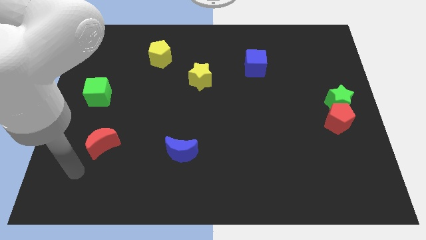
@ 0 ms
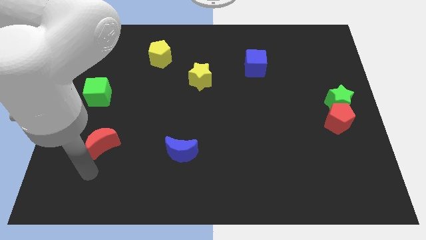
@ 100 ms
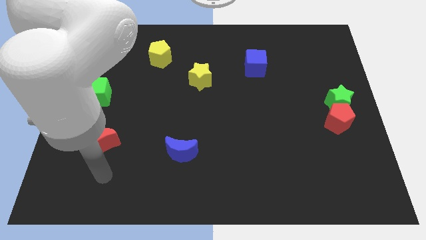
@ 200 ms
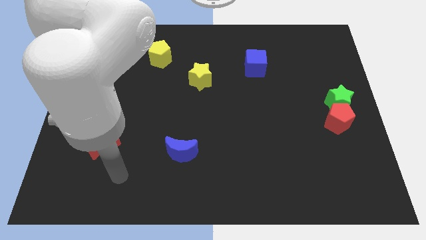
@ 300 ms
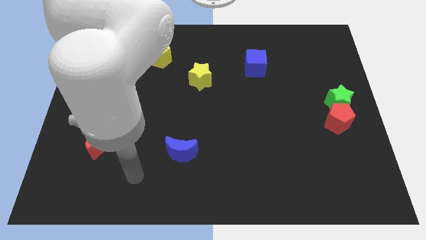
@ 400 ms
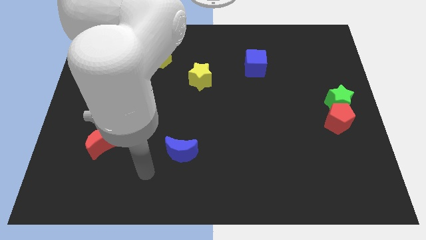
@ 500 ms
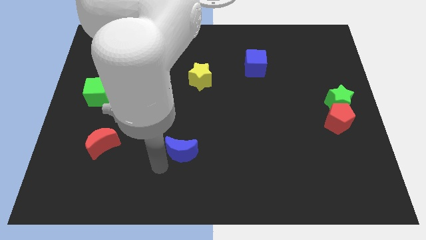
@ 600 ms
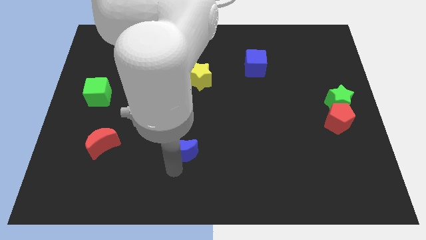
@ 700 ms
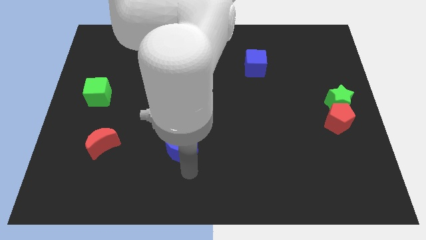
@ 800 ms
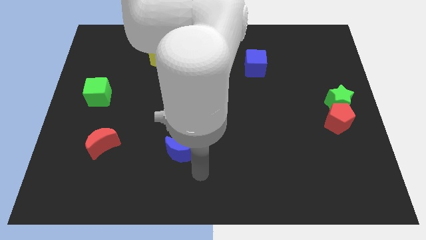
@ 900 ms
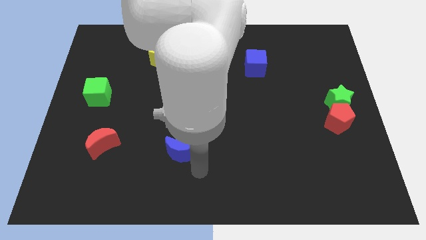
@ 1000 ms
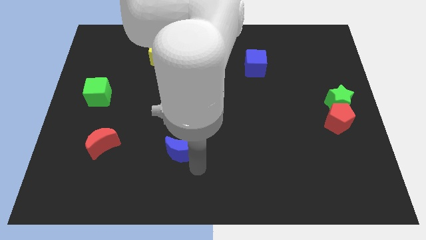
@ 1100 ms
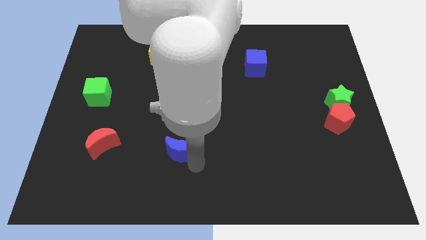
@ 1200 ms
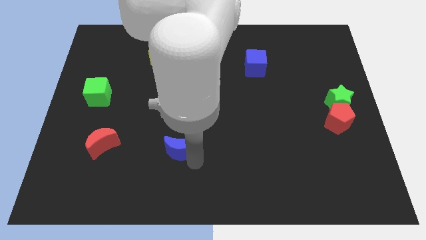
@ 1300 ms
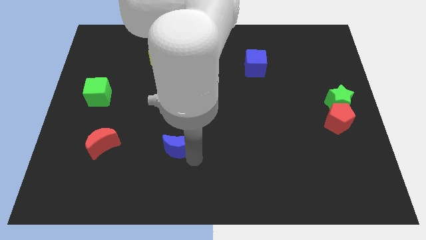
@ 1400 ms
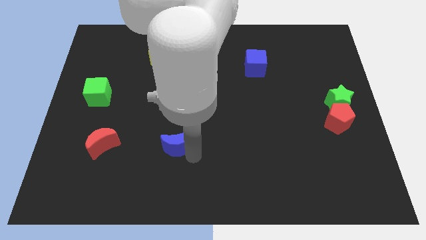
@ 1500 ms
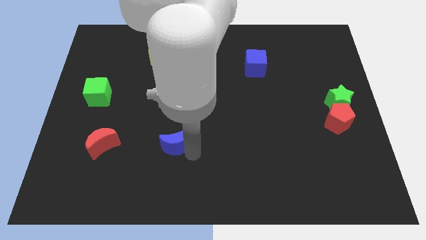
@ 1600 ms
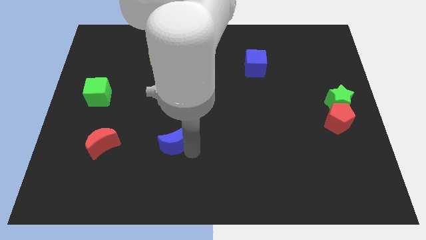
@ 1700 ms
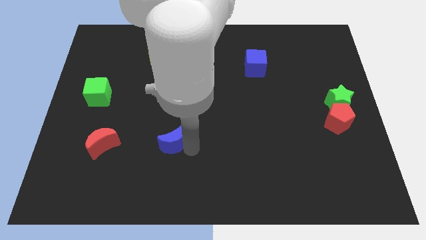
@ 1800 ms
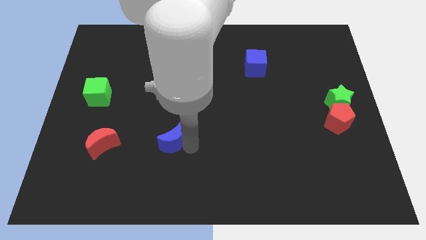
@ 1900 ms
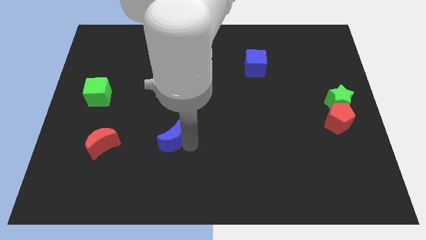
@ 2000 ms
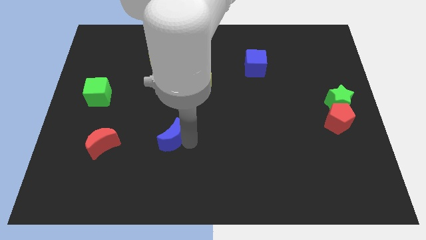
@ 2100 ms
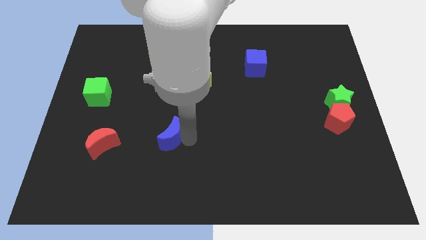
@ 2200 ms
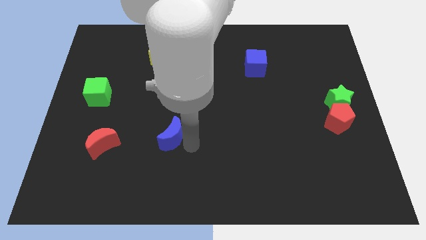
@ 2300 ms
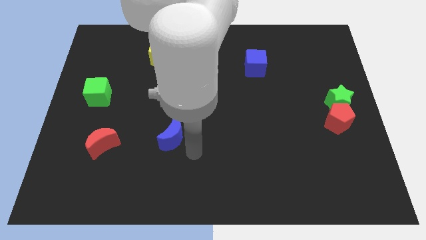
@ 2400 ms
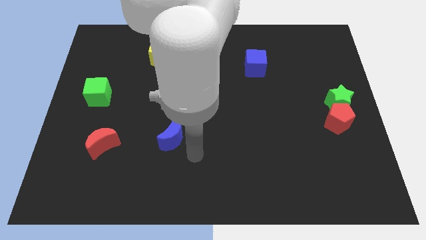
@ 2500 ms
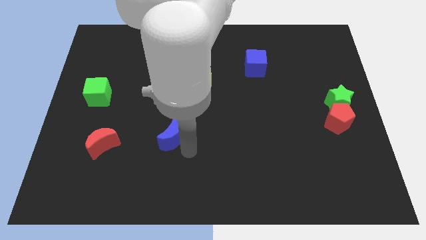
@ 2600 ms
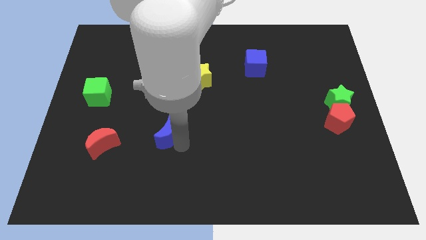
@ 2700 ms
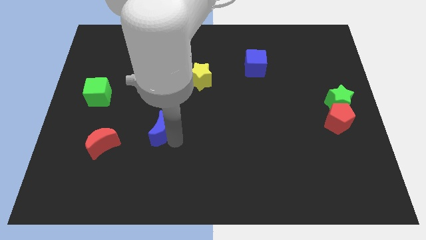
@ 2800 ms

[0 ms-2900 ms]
push the blue moon slightly up and to the left diagonally

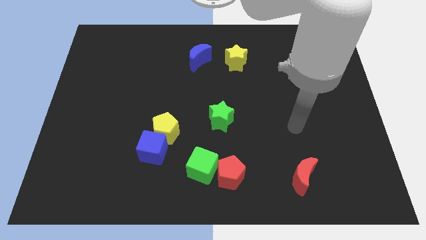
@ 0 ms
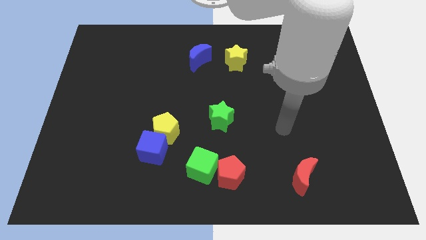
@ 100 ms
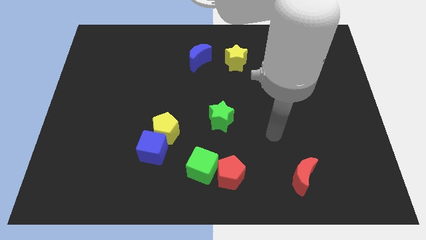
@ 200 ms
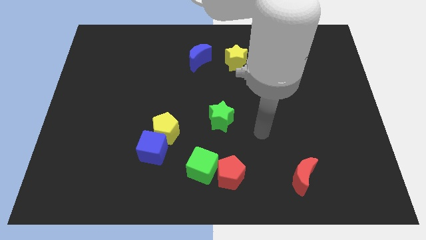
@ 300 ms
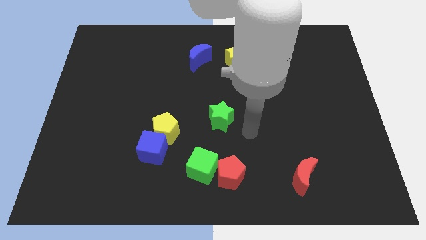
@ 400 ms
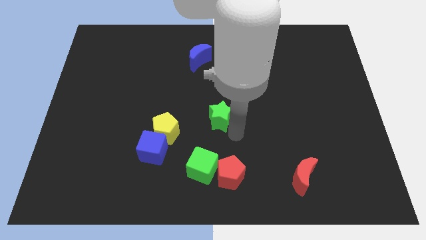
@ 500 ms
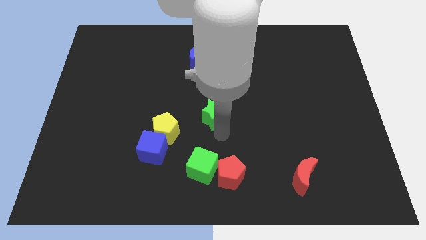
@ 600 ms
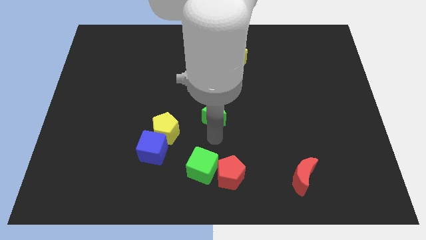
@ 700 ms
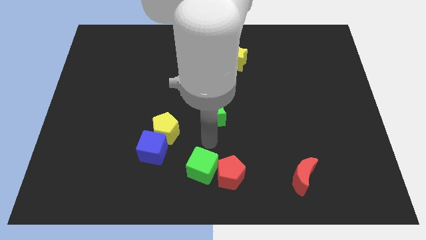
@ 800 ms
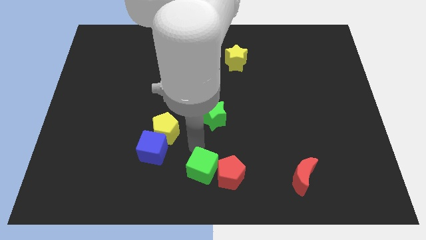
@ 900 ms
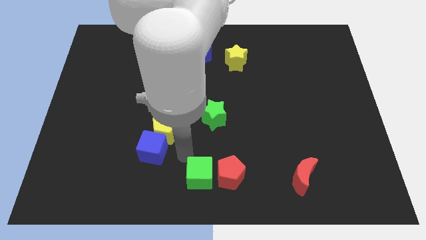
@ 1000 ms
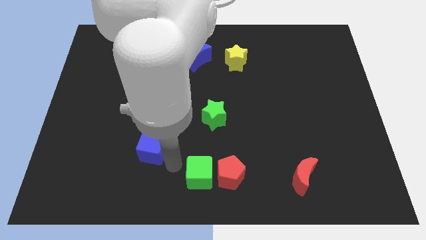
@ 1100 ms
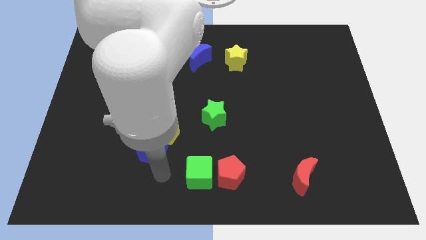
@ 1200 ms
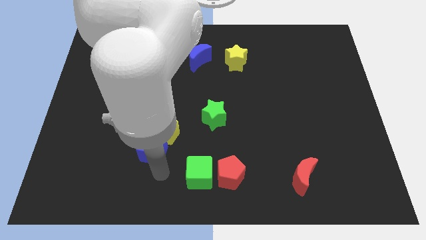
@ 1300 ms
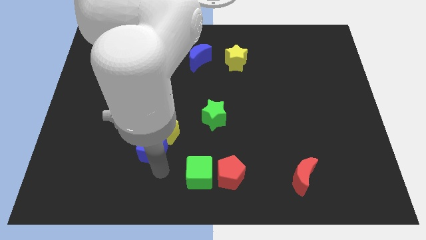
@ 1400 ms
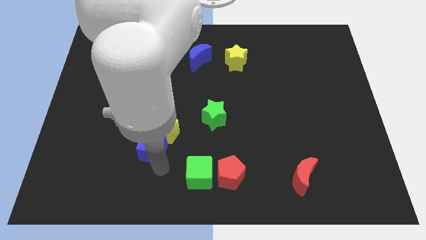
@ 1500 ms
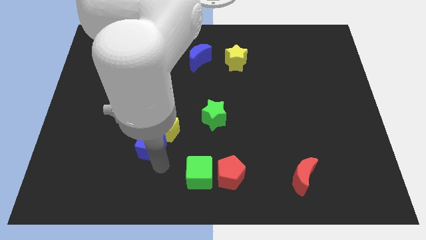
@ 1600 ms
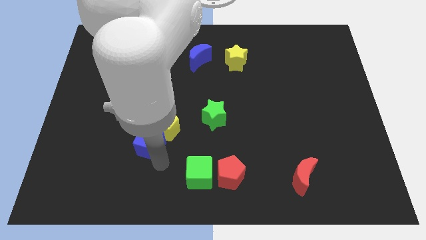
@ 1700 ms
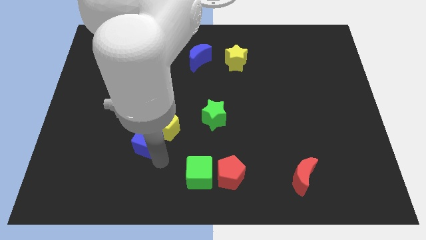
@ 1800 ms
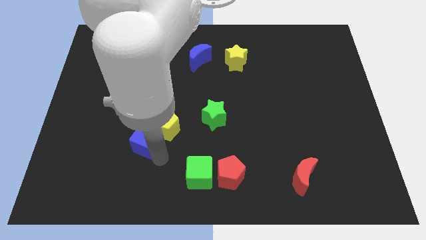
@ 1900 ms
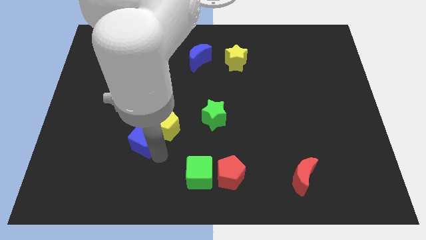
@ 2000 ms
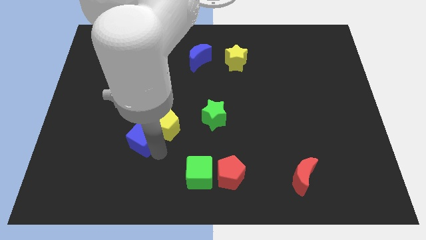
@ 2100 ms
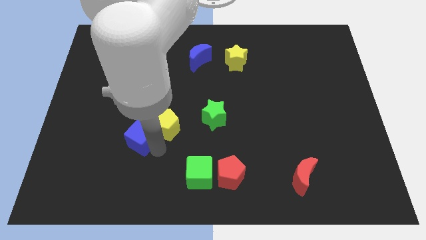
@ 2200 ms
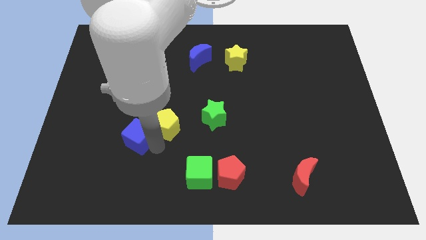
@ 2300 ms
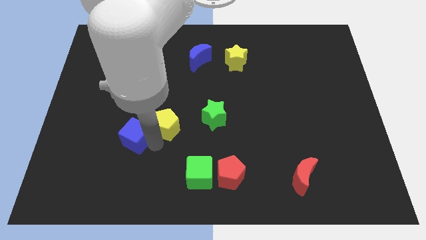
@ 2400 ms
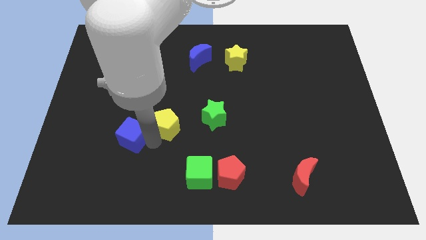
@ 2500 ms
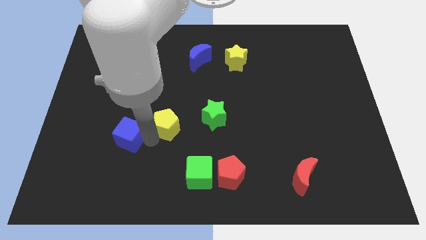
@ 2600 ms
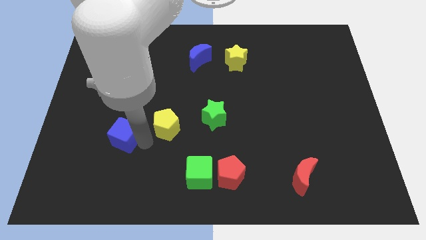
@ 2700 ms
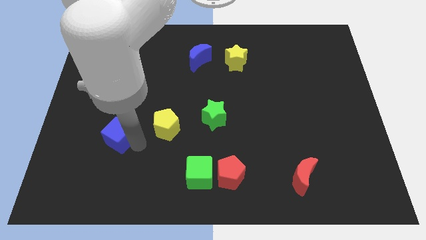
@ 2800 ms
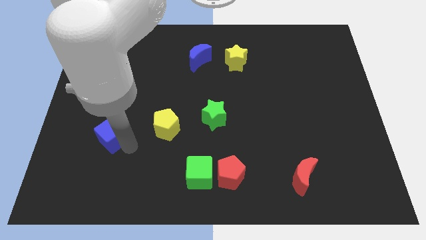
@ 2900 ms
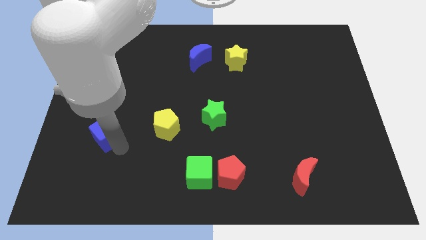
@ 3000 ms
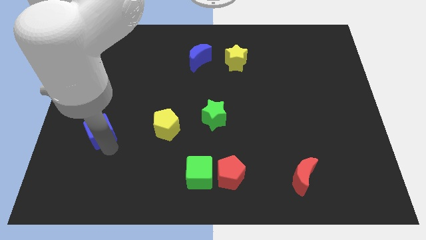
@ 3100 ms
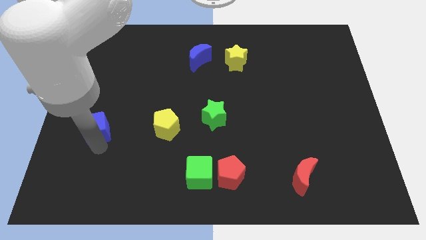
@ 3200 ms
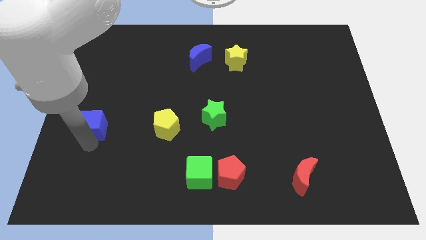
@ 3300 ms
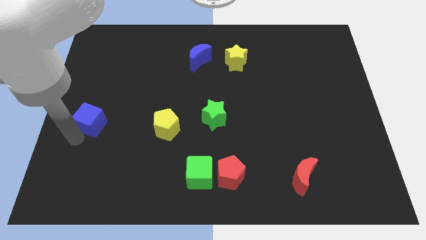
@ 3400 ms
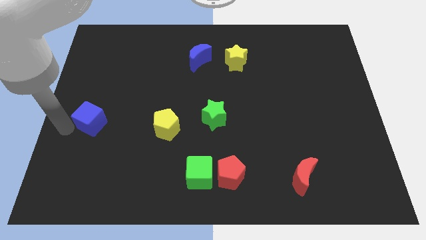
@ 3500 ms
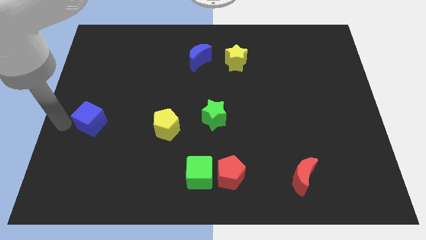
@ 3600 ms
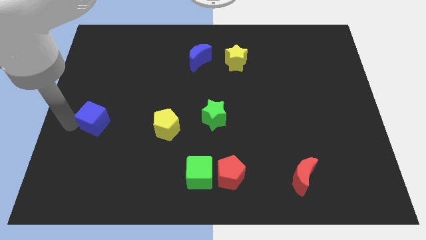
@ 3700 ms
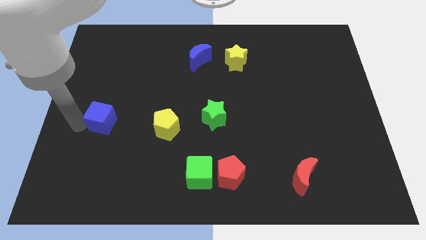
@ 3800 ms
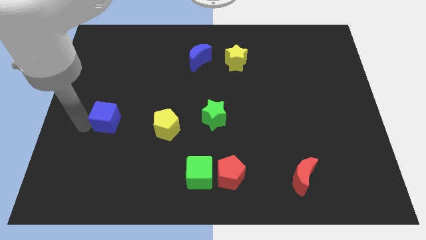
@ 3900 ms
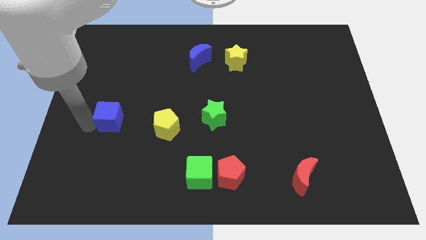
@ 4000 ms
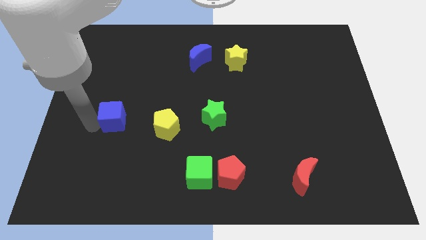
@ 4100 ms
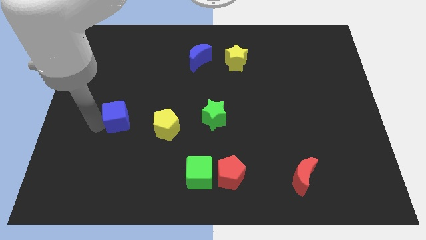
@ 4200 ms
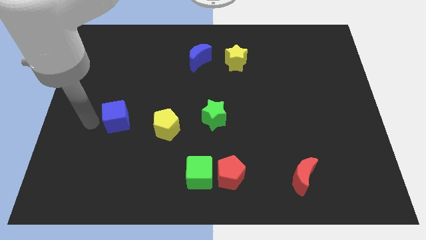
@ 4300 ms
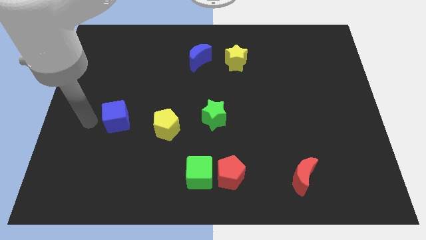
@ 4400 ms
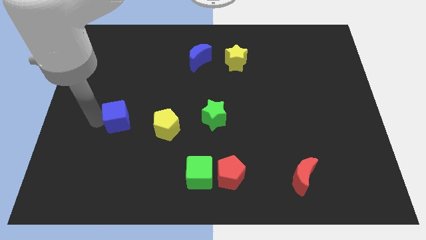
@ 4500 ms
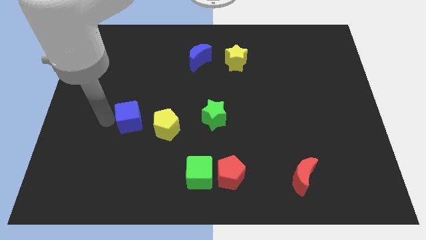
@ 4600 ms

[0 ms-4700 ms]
slightly slide the blue cube up

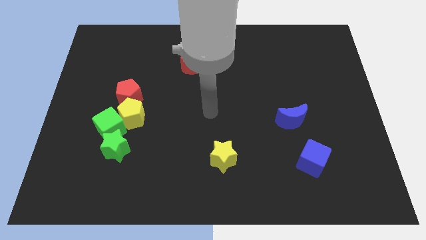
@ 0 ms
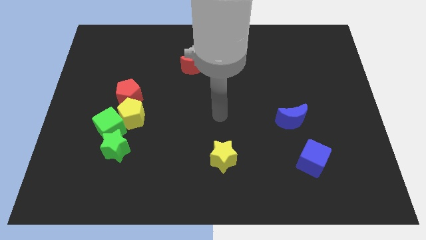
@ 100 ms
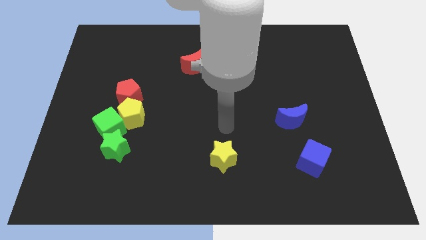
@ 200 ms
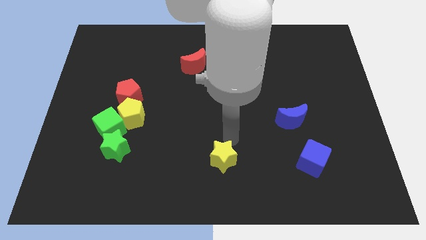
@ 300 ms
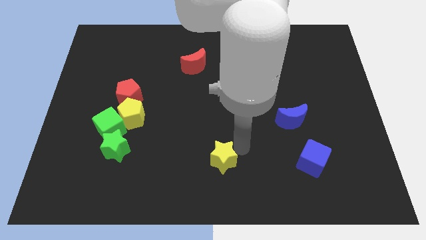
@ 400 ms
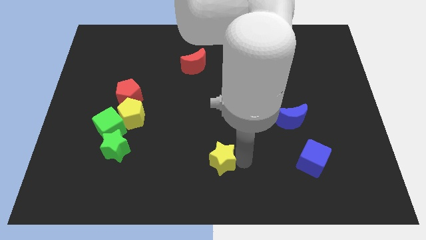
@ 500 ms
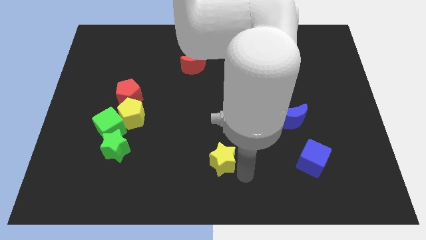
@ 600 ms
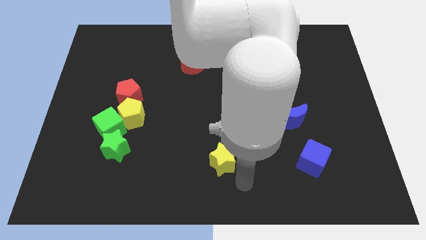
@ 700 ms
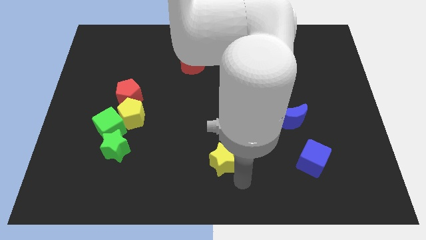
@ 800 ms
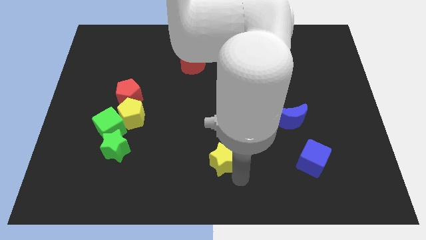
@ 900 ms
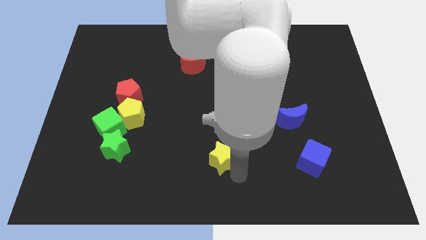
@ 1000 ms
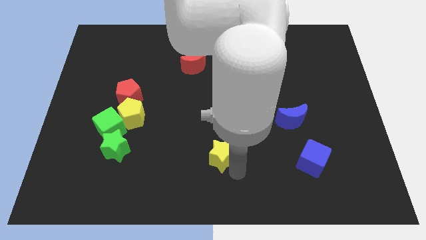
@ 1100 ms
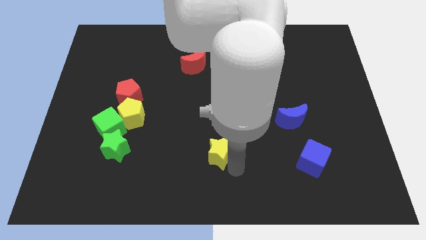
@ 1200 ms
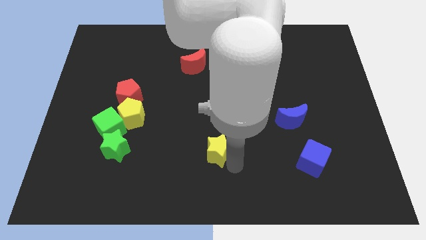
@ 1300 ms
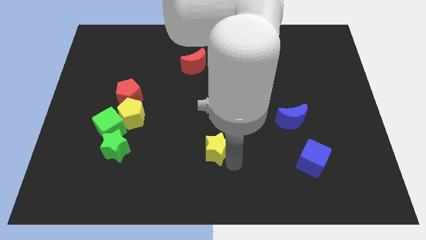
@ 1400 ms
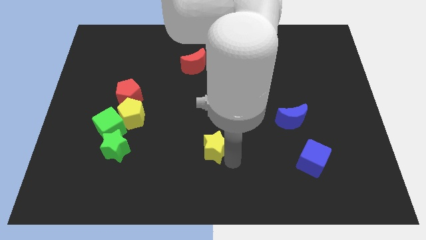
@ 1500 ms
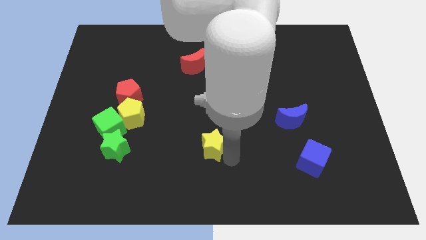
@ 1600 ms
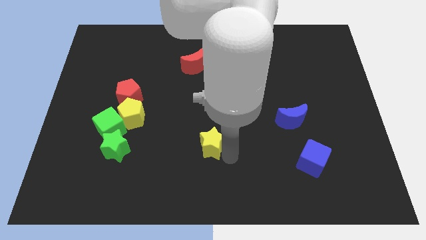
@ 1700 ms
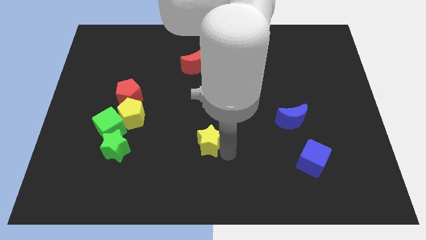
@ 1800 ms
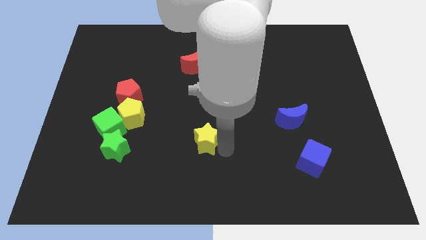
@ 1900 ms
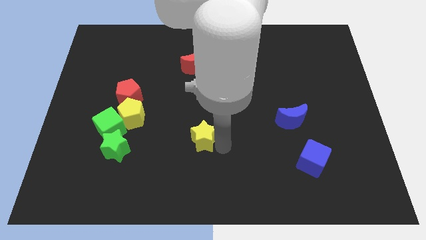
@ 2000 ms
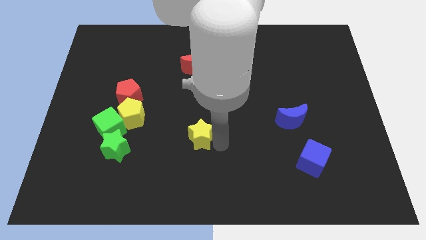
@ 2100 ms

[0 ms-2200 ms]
move the yellow star up and left slightly
